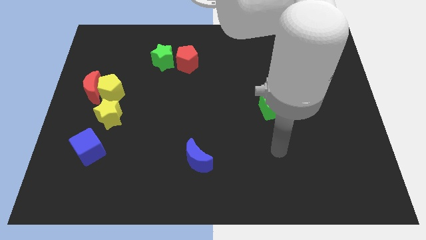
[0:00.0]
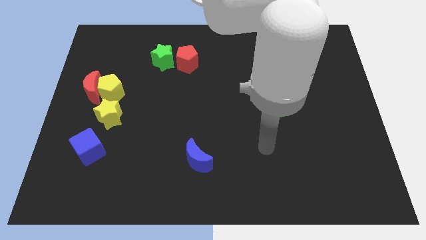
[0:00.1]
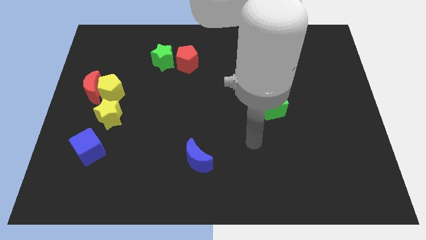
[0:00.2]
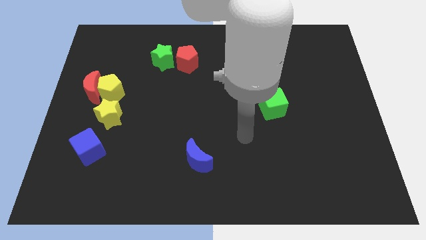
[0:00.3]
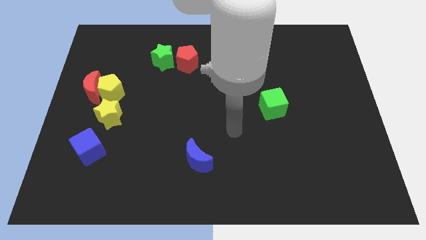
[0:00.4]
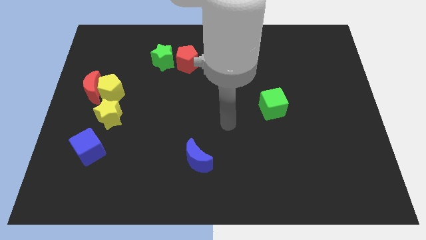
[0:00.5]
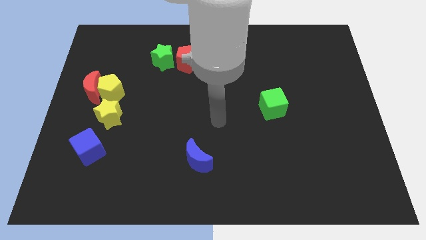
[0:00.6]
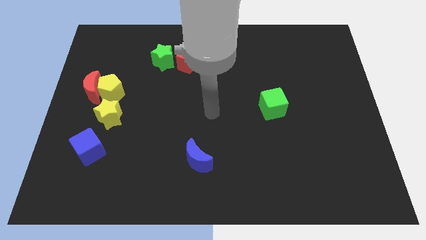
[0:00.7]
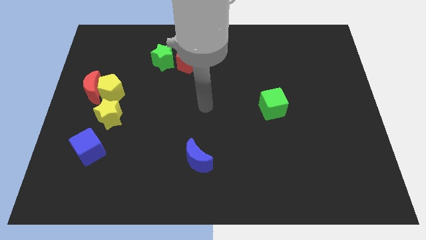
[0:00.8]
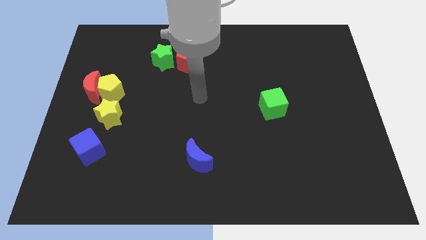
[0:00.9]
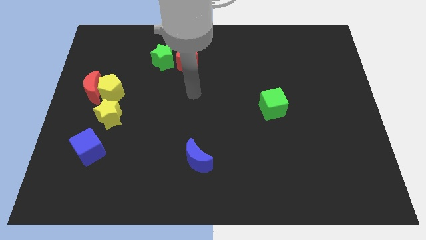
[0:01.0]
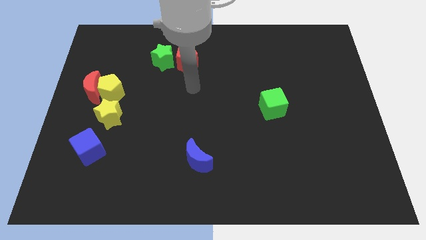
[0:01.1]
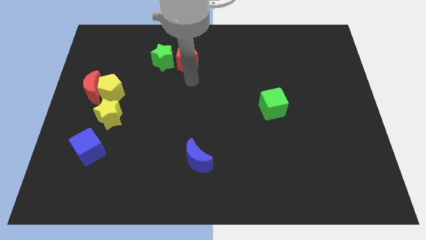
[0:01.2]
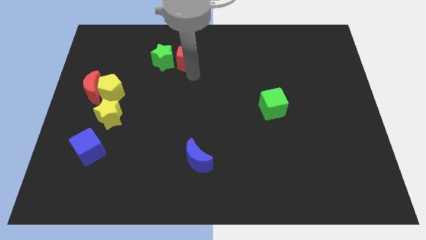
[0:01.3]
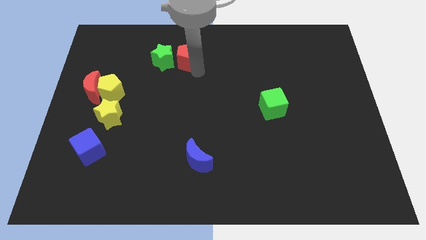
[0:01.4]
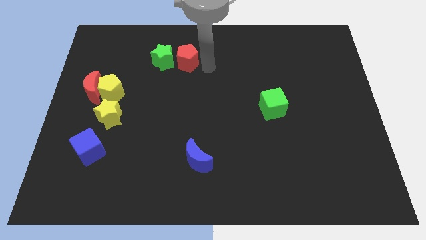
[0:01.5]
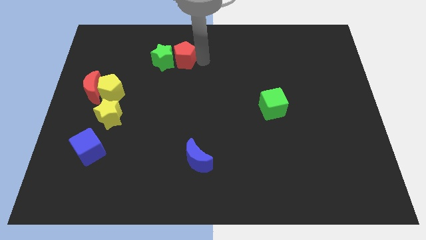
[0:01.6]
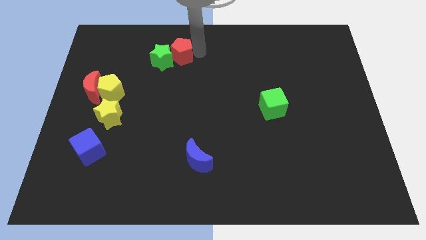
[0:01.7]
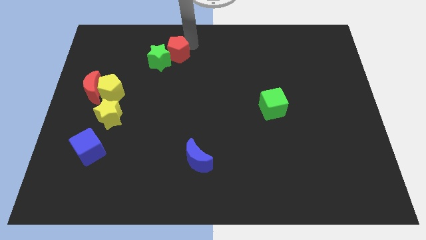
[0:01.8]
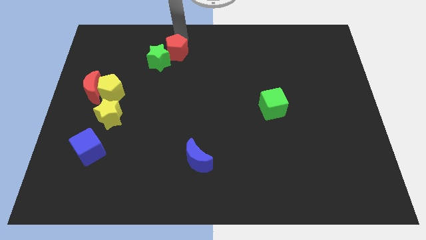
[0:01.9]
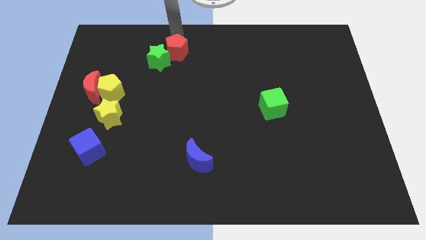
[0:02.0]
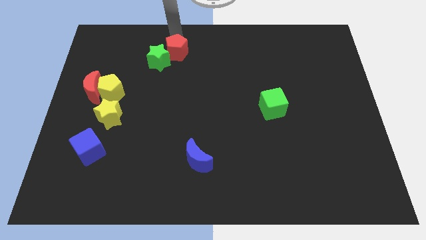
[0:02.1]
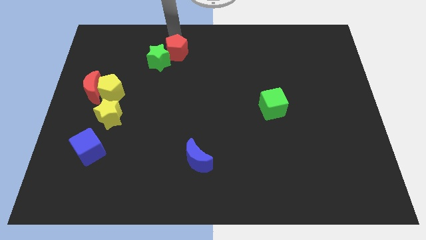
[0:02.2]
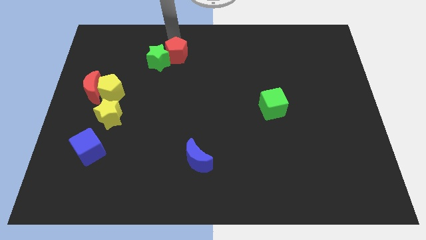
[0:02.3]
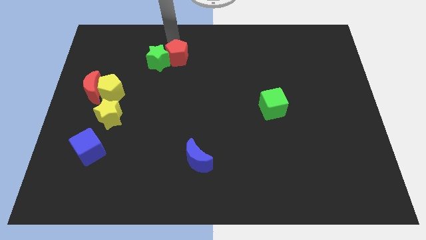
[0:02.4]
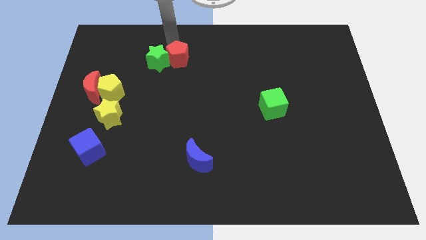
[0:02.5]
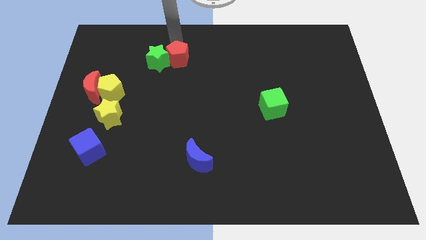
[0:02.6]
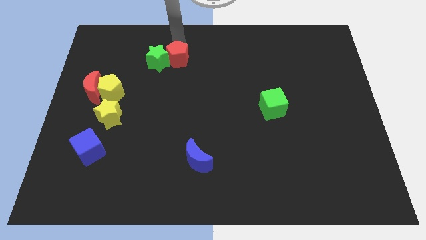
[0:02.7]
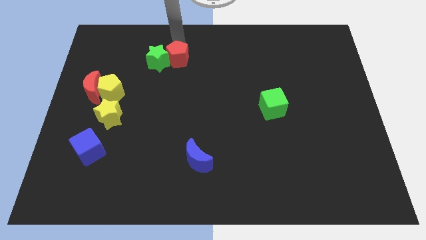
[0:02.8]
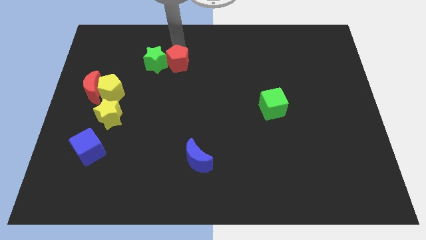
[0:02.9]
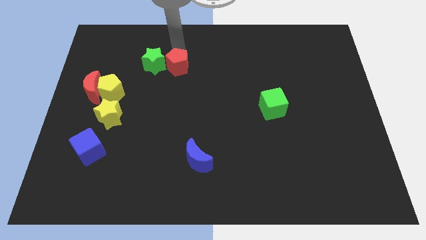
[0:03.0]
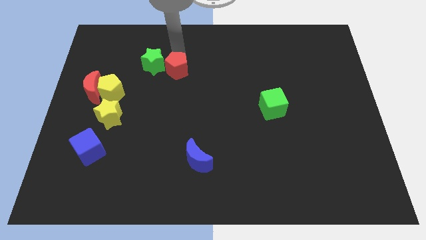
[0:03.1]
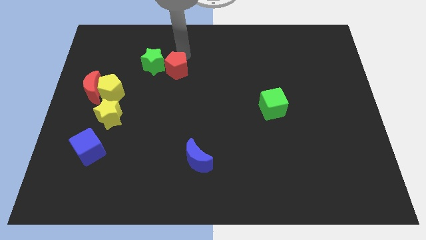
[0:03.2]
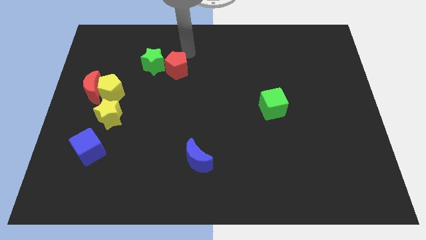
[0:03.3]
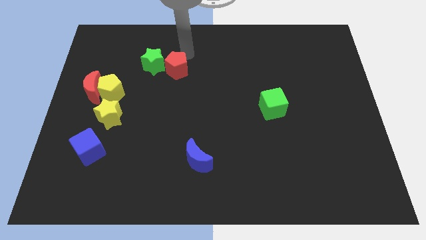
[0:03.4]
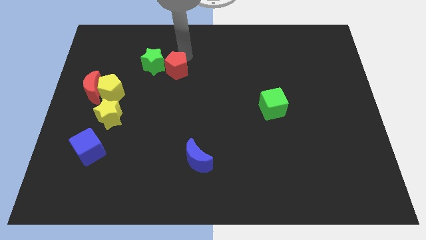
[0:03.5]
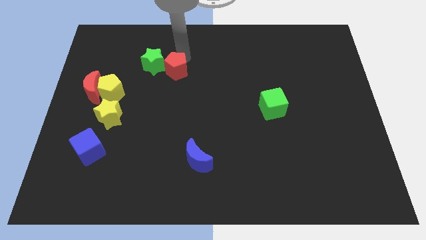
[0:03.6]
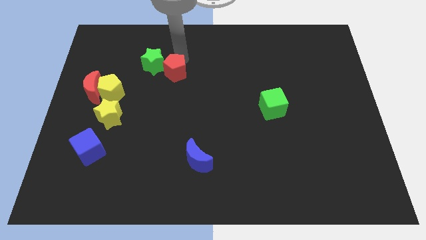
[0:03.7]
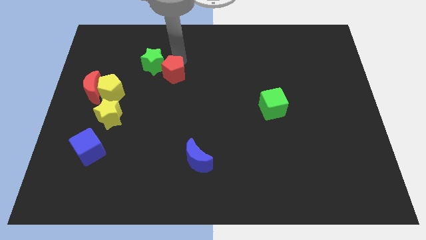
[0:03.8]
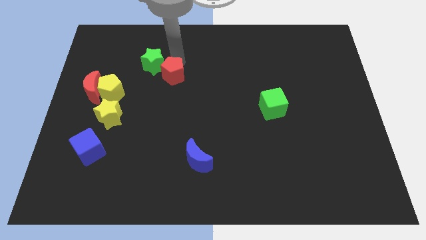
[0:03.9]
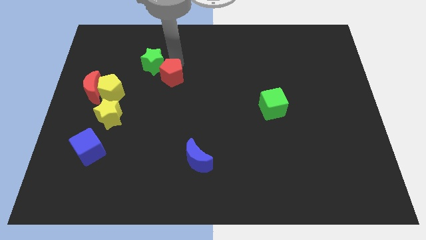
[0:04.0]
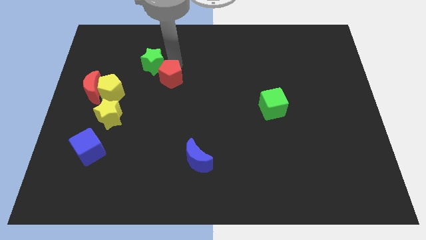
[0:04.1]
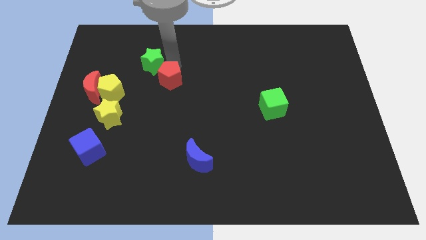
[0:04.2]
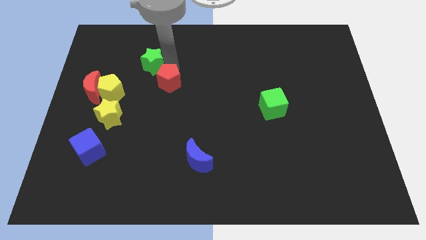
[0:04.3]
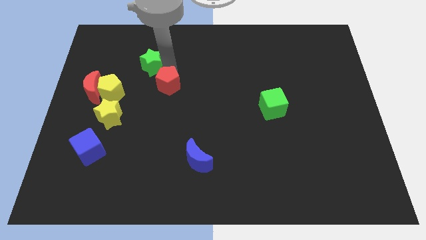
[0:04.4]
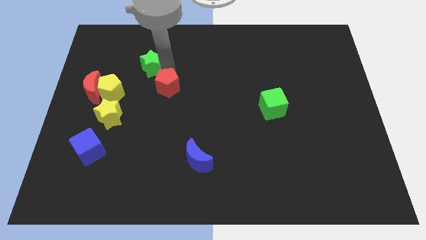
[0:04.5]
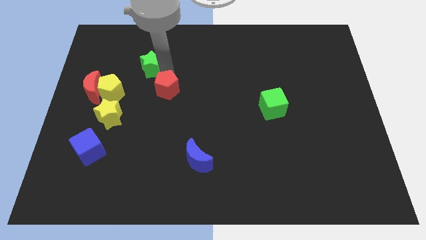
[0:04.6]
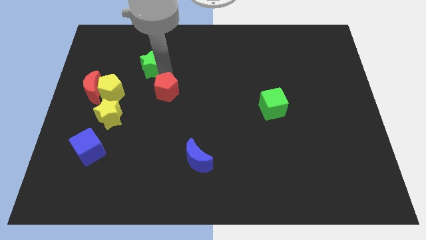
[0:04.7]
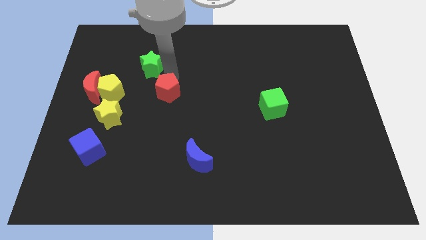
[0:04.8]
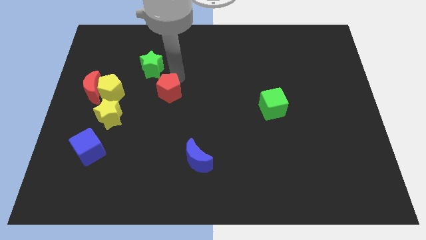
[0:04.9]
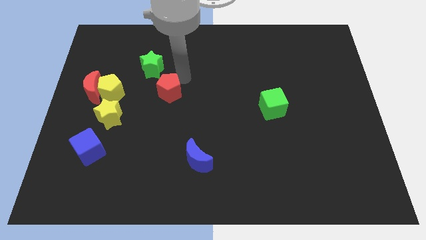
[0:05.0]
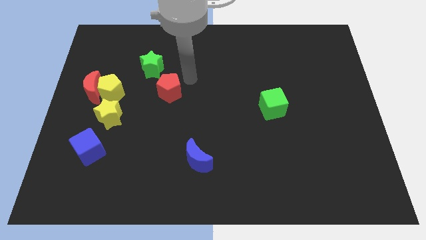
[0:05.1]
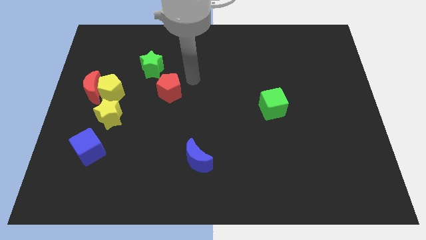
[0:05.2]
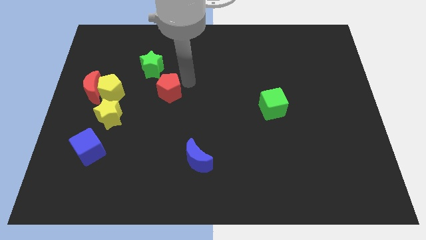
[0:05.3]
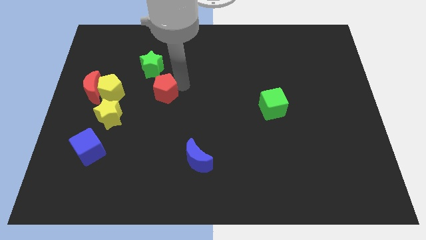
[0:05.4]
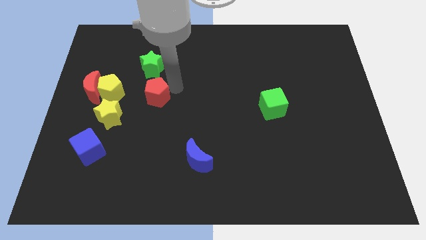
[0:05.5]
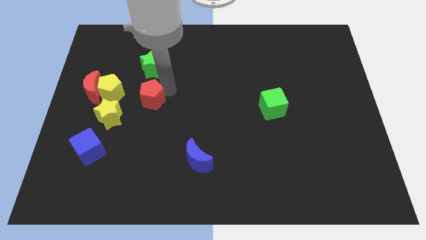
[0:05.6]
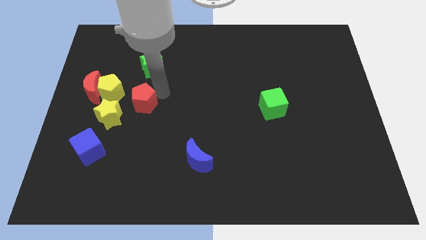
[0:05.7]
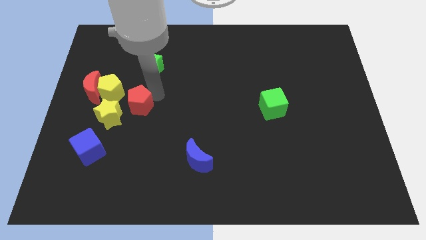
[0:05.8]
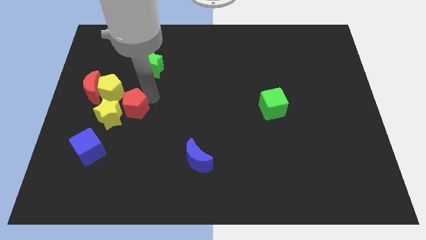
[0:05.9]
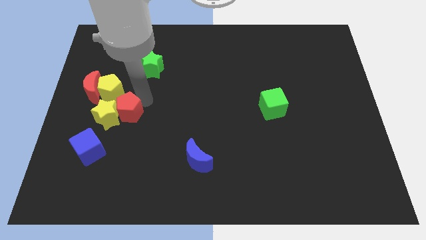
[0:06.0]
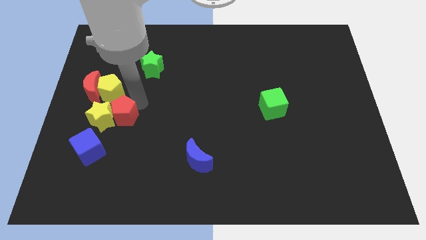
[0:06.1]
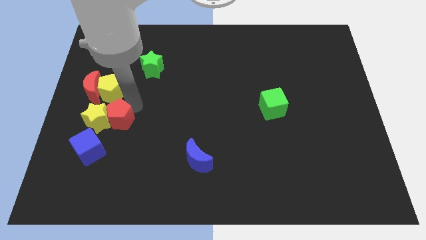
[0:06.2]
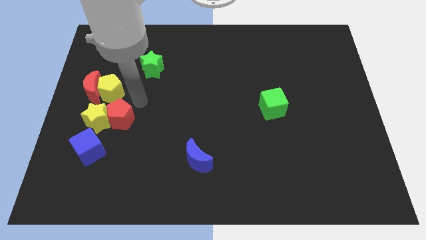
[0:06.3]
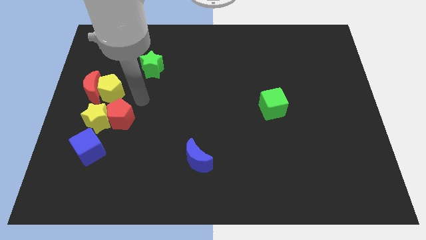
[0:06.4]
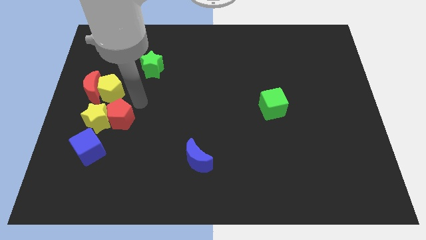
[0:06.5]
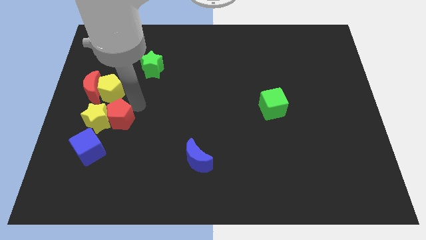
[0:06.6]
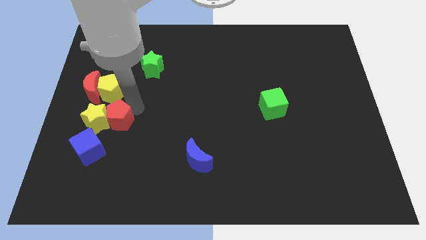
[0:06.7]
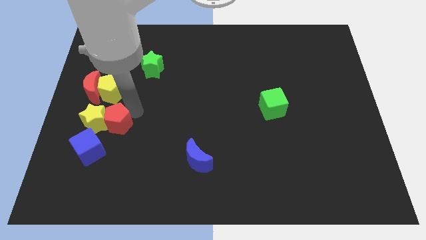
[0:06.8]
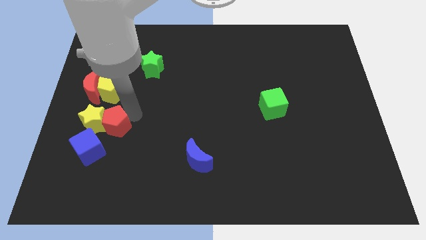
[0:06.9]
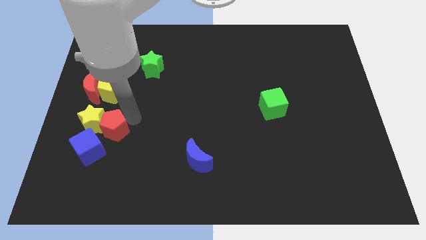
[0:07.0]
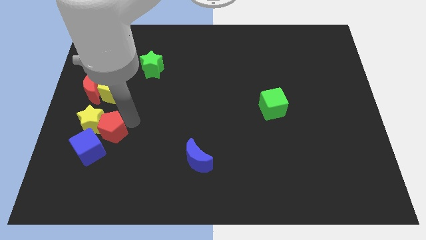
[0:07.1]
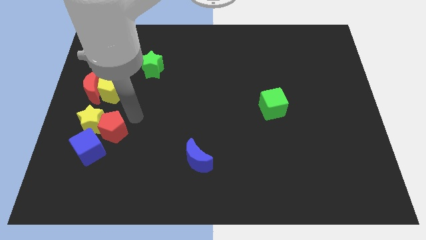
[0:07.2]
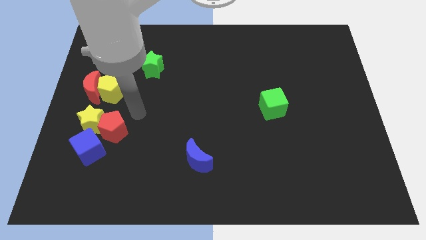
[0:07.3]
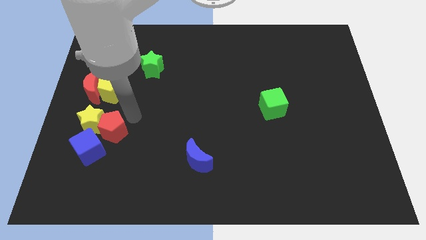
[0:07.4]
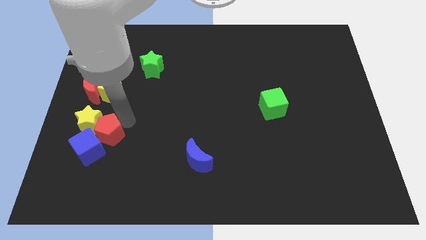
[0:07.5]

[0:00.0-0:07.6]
push the red pentagon next to the blue cube

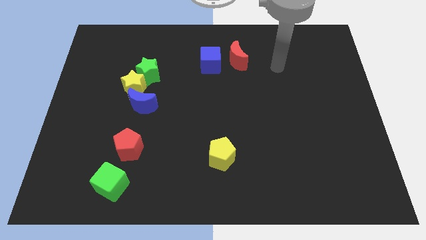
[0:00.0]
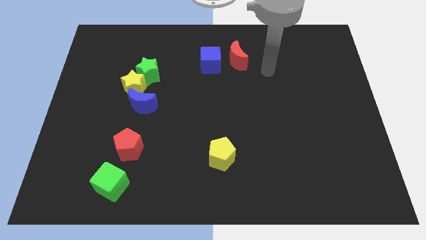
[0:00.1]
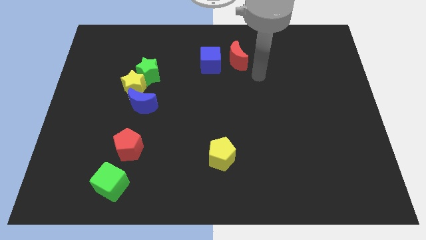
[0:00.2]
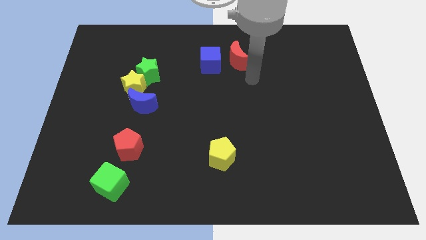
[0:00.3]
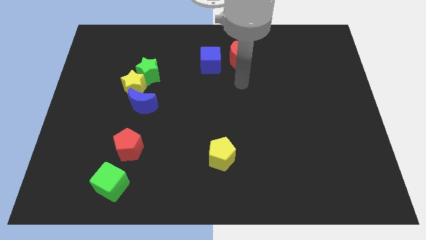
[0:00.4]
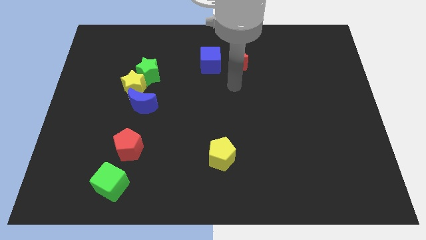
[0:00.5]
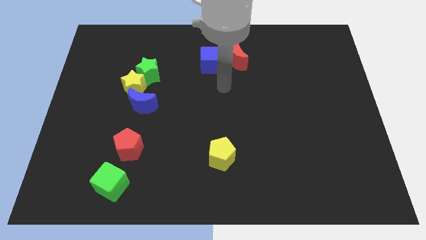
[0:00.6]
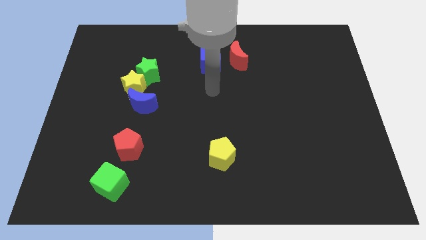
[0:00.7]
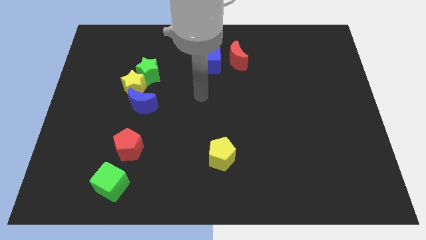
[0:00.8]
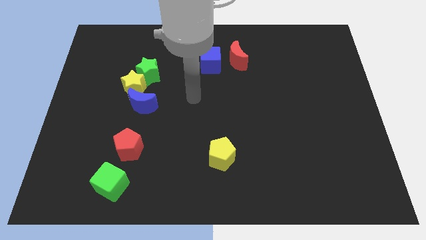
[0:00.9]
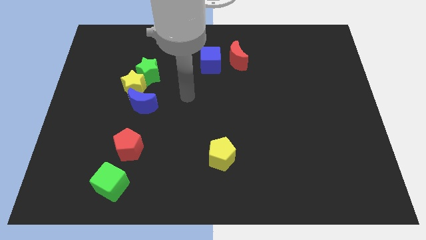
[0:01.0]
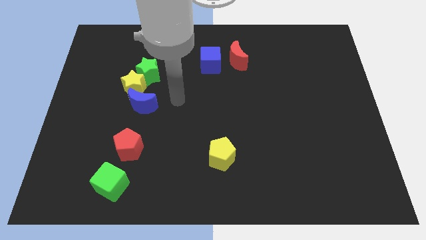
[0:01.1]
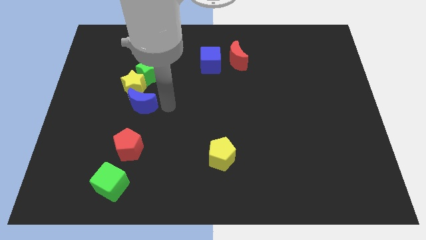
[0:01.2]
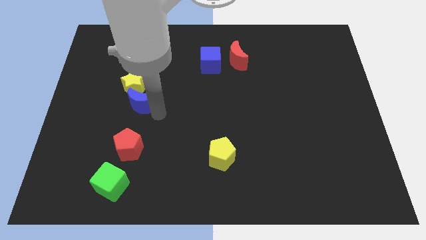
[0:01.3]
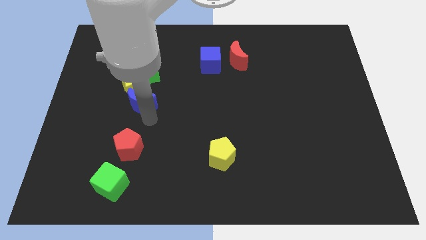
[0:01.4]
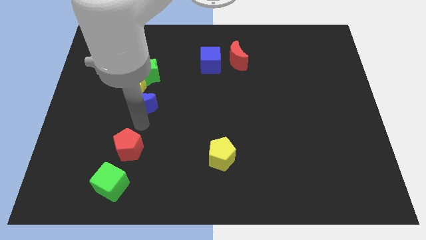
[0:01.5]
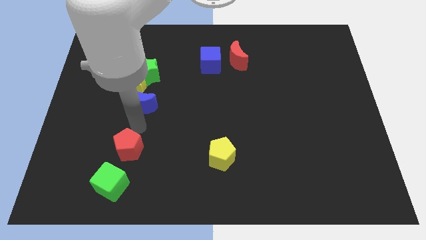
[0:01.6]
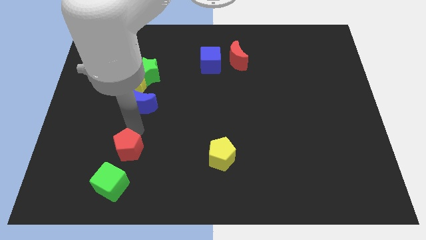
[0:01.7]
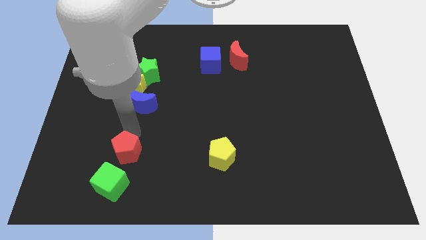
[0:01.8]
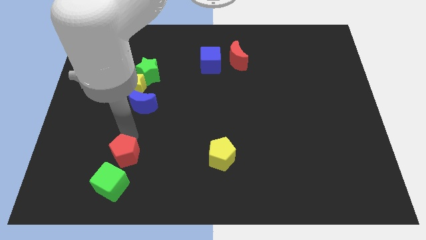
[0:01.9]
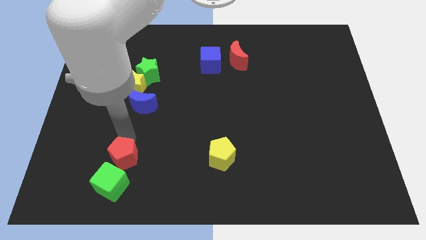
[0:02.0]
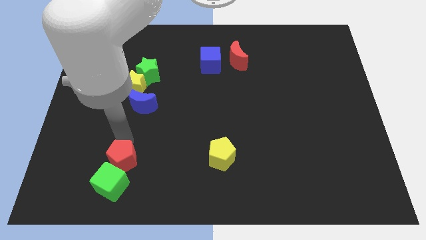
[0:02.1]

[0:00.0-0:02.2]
push the red pentagon close to the green cube
